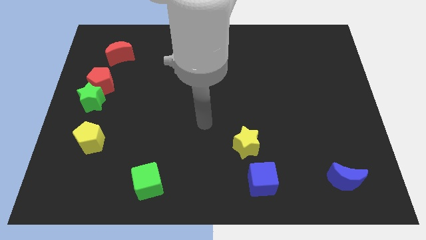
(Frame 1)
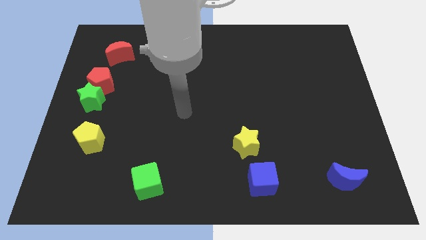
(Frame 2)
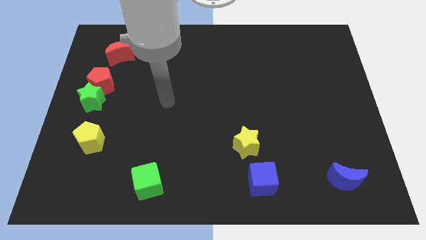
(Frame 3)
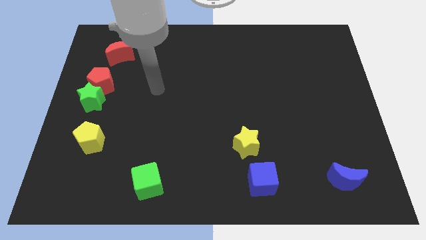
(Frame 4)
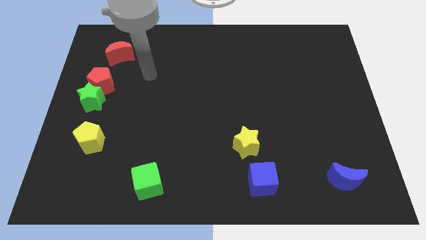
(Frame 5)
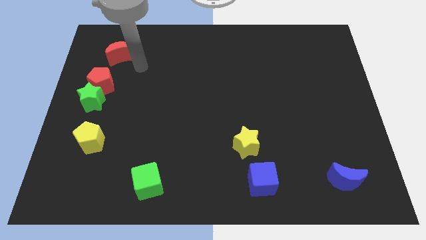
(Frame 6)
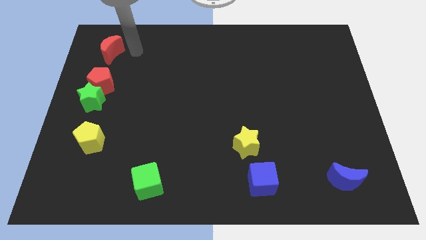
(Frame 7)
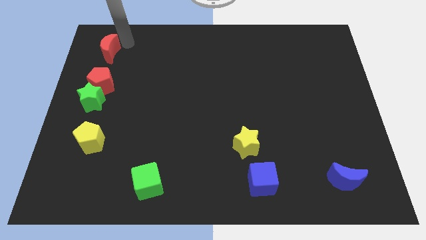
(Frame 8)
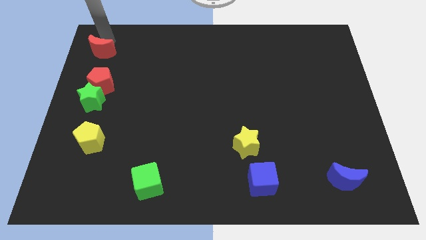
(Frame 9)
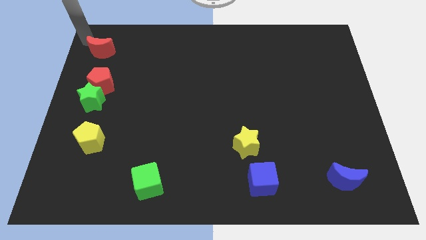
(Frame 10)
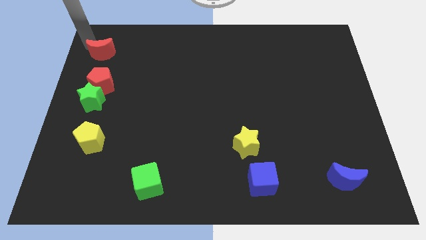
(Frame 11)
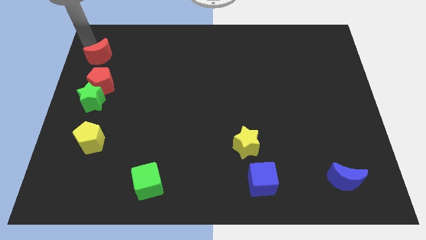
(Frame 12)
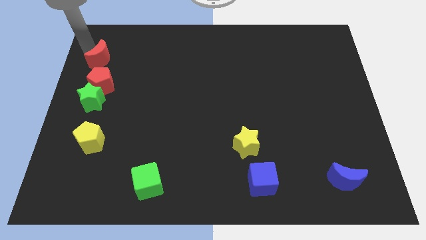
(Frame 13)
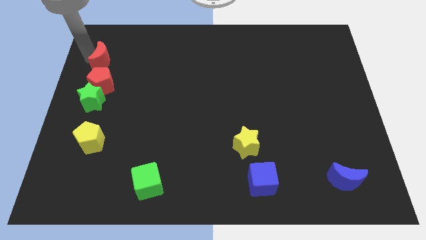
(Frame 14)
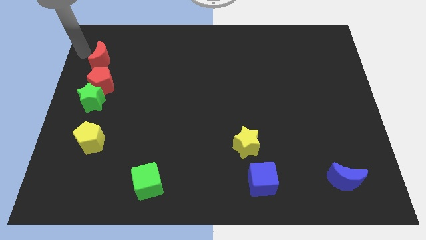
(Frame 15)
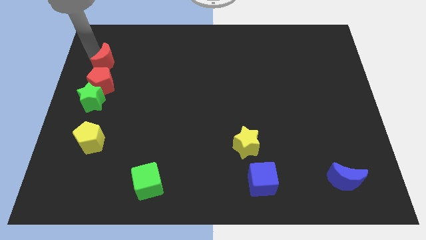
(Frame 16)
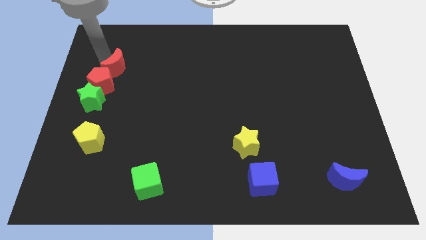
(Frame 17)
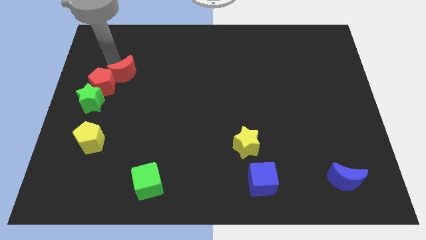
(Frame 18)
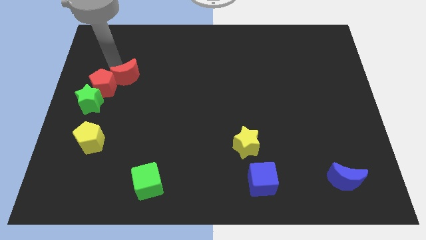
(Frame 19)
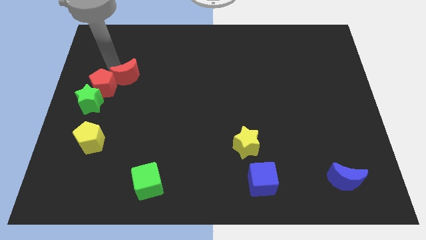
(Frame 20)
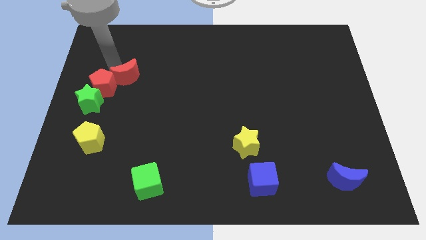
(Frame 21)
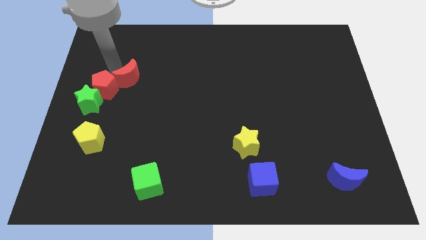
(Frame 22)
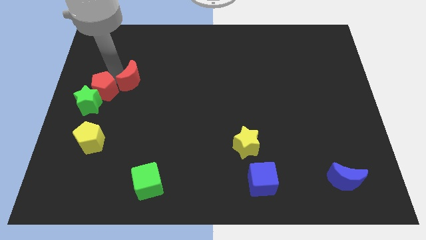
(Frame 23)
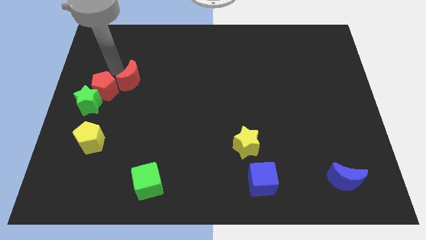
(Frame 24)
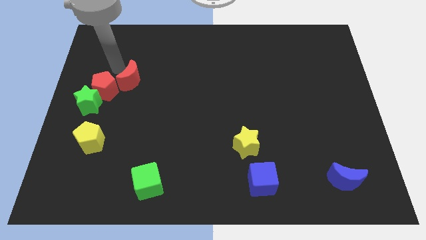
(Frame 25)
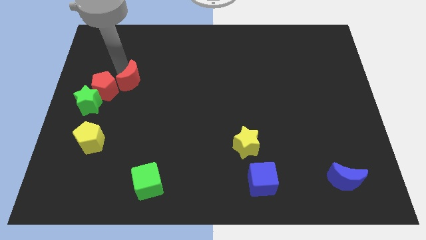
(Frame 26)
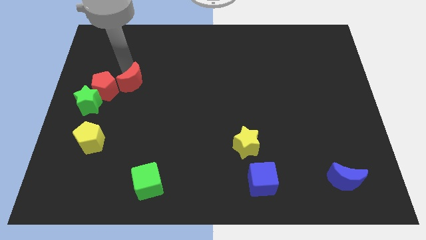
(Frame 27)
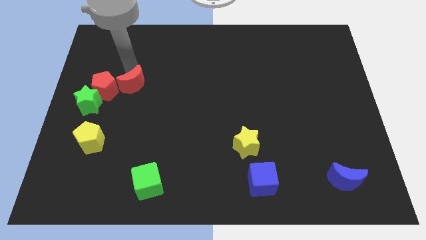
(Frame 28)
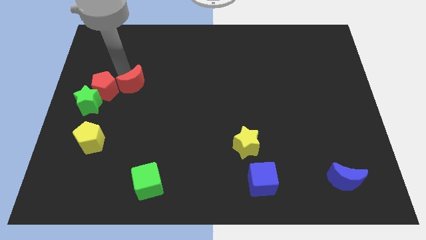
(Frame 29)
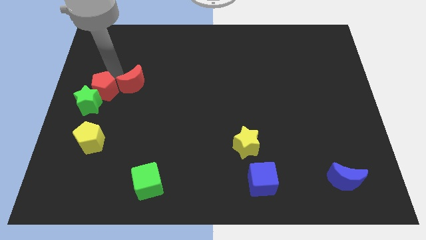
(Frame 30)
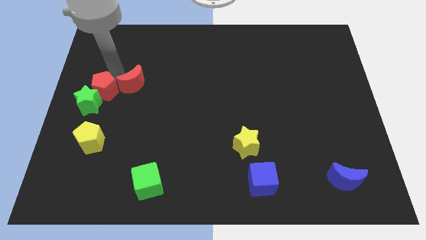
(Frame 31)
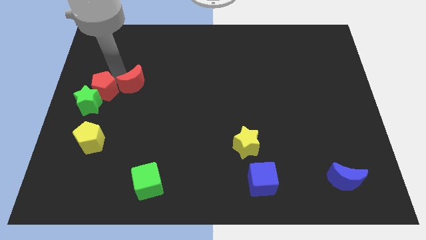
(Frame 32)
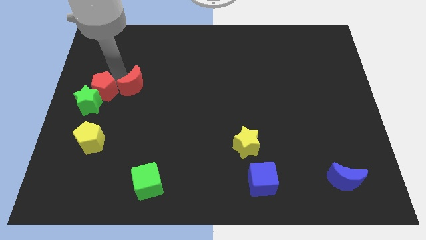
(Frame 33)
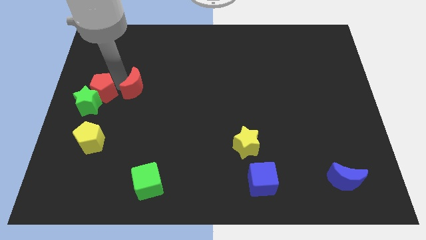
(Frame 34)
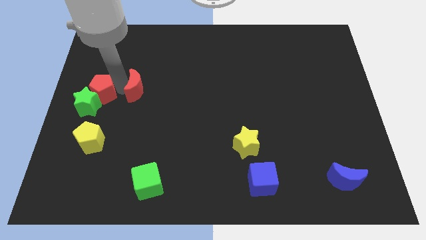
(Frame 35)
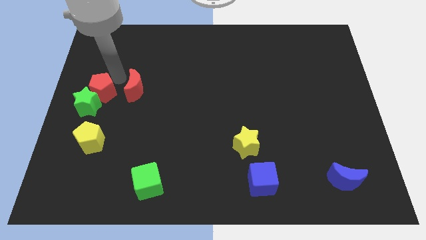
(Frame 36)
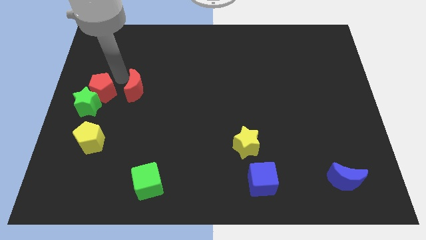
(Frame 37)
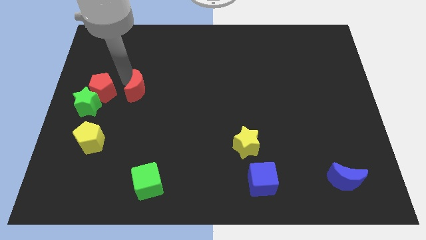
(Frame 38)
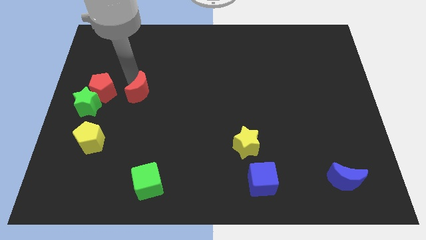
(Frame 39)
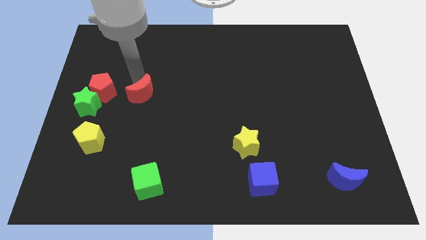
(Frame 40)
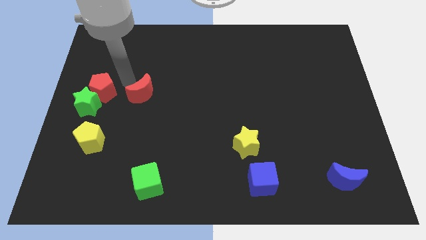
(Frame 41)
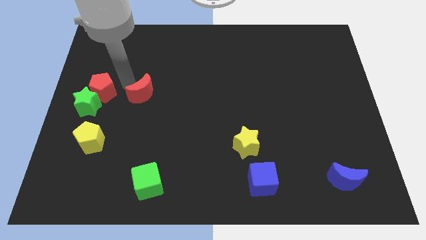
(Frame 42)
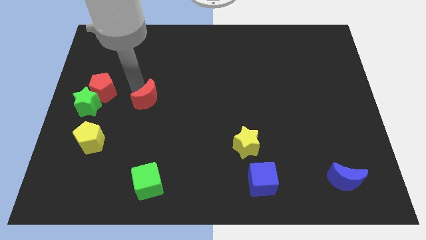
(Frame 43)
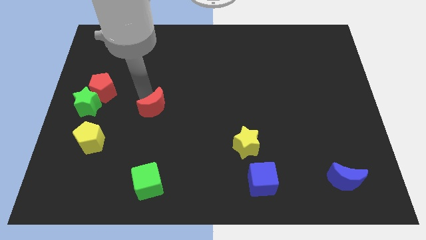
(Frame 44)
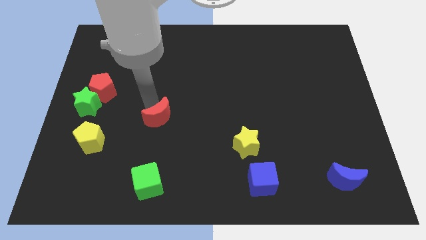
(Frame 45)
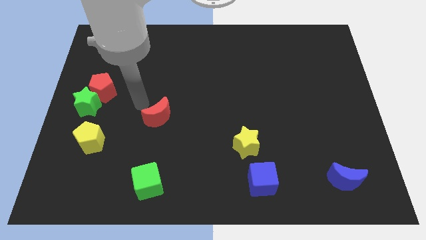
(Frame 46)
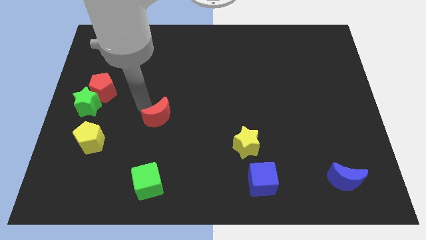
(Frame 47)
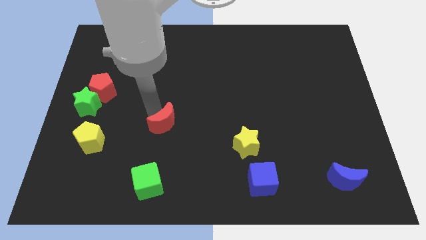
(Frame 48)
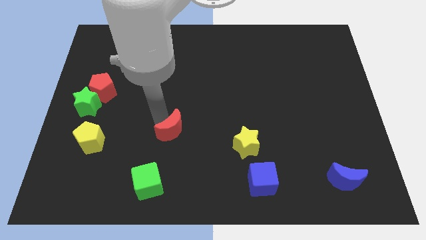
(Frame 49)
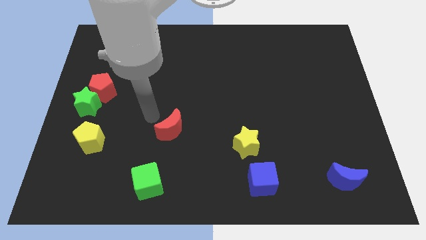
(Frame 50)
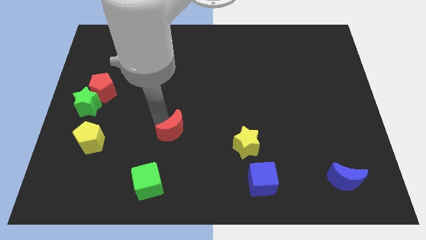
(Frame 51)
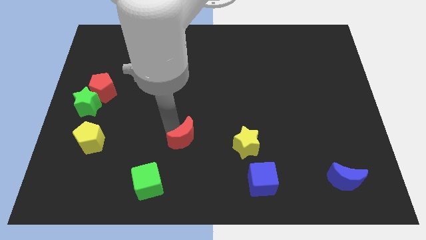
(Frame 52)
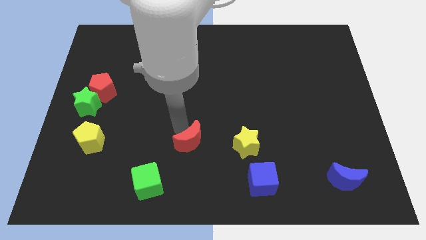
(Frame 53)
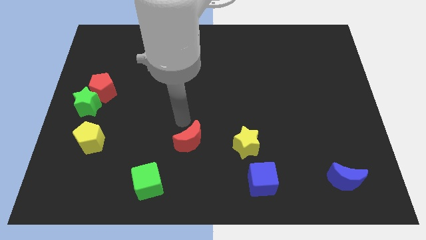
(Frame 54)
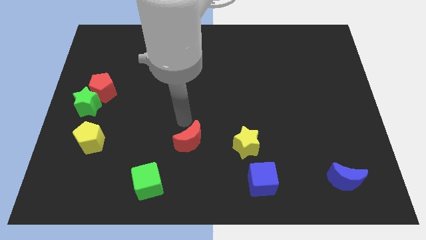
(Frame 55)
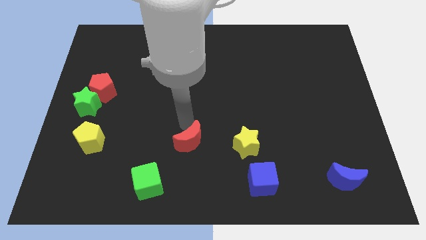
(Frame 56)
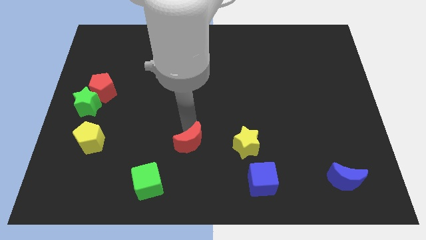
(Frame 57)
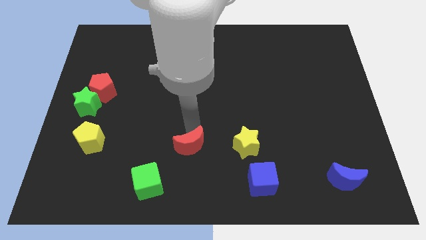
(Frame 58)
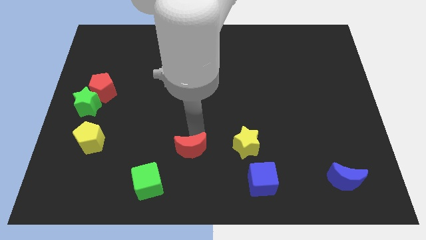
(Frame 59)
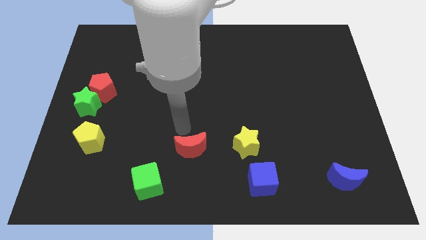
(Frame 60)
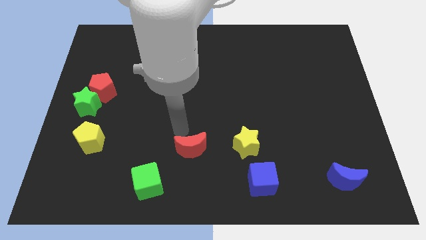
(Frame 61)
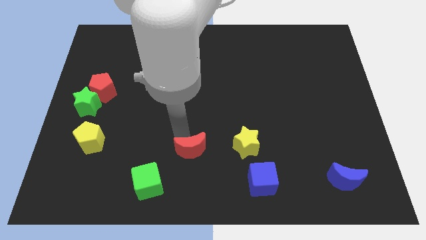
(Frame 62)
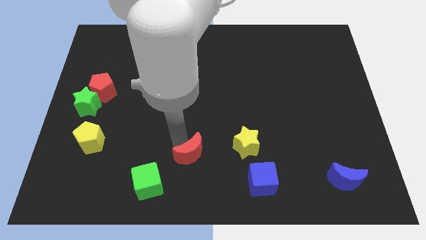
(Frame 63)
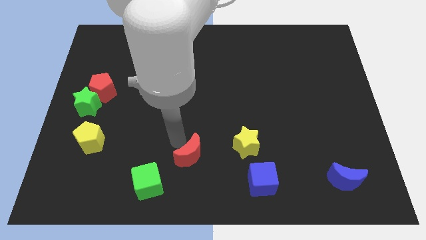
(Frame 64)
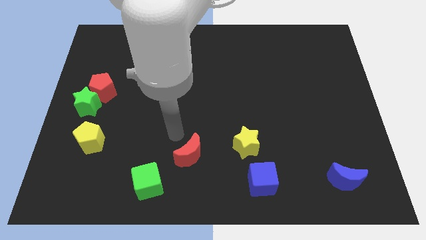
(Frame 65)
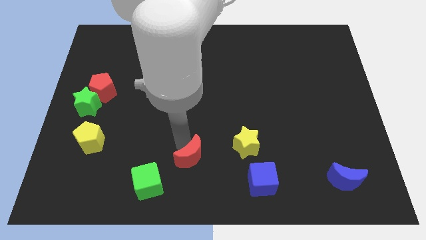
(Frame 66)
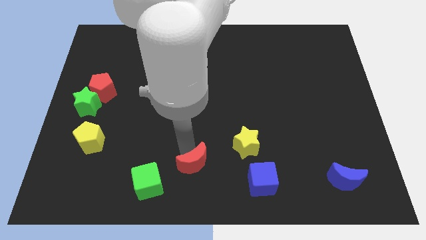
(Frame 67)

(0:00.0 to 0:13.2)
slide the red moon to the left side of the blue cube

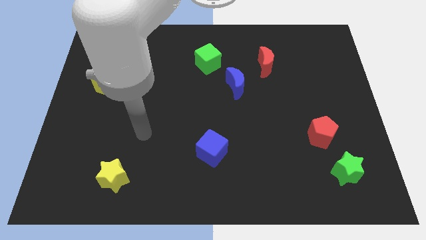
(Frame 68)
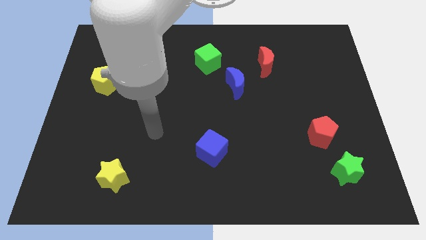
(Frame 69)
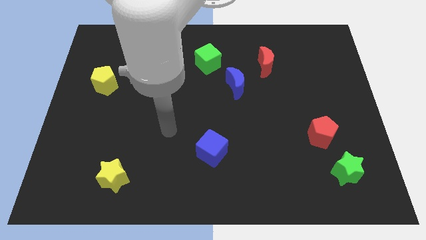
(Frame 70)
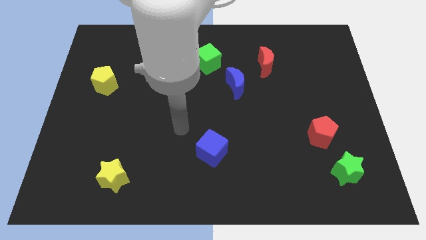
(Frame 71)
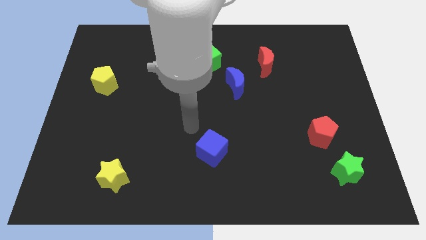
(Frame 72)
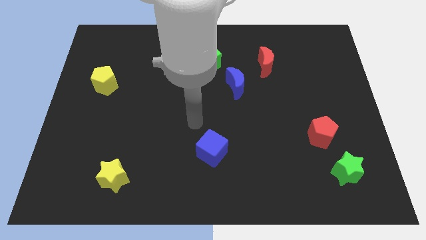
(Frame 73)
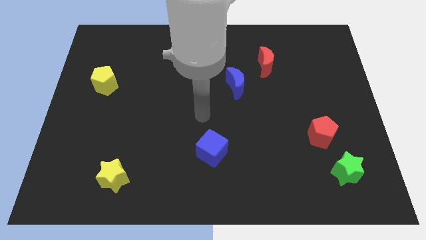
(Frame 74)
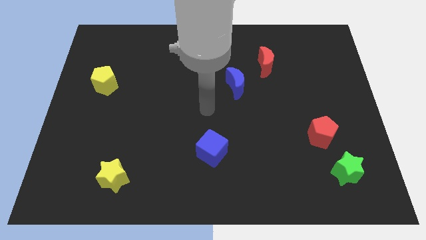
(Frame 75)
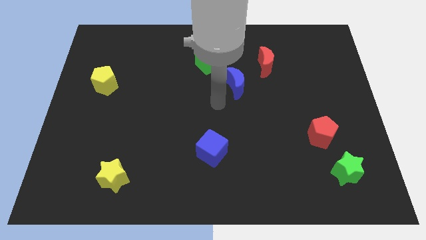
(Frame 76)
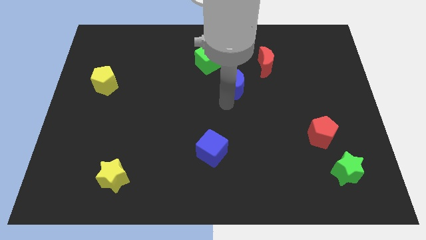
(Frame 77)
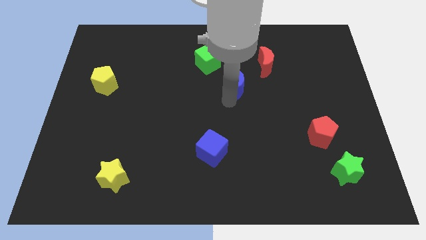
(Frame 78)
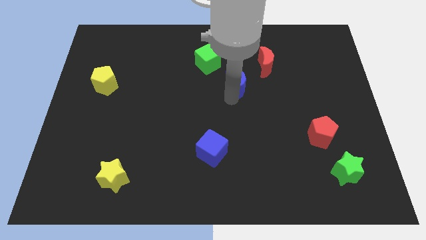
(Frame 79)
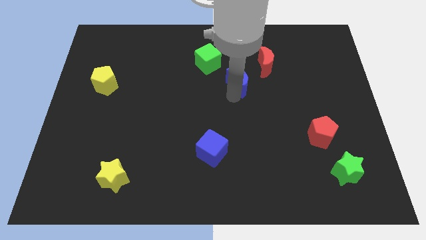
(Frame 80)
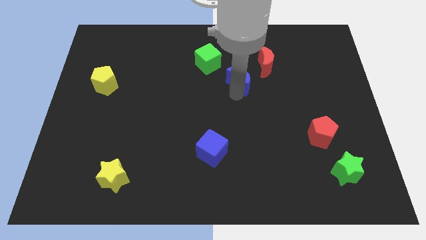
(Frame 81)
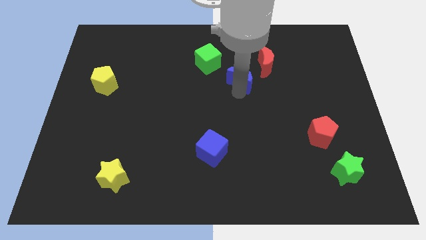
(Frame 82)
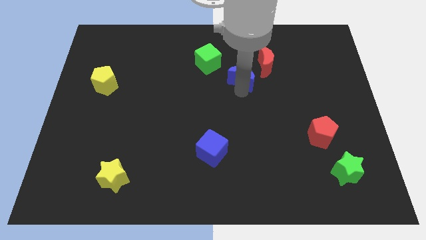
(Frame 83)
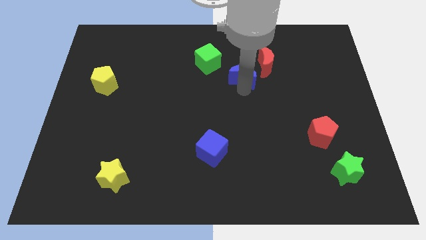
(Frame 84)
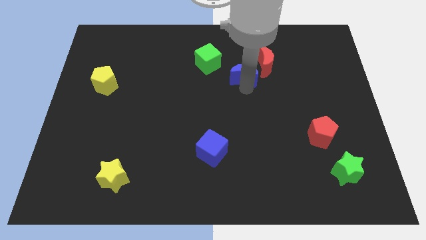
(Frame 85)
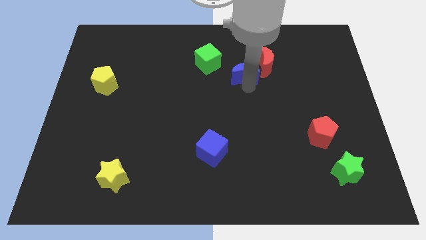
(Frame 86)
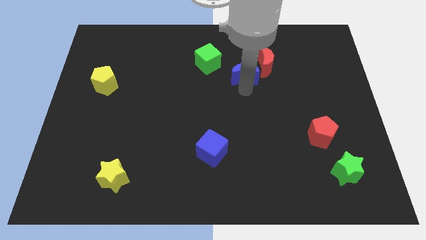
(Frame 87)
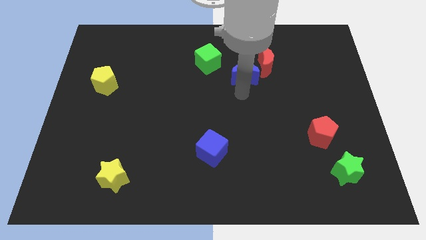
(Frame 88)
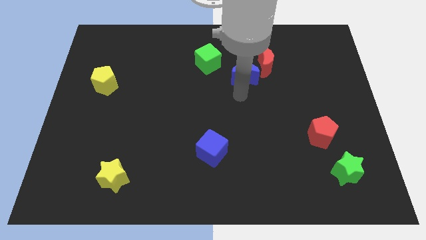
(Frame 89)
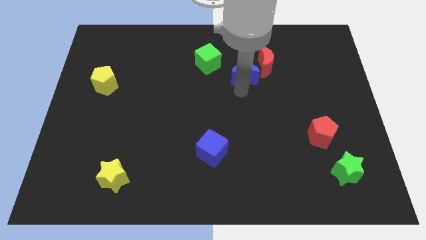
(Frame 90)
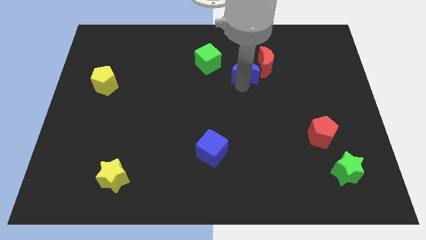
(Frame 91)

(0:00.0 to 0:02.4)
put the blue moon just right of the green cube
